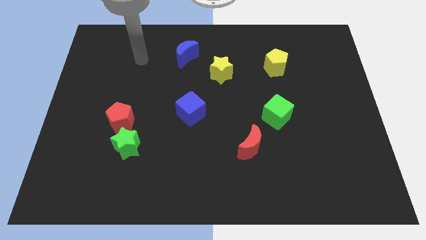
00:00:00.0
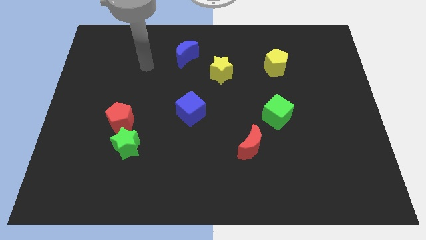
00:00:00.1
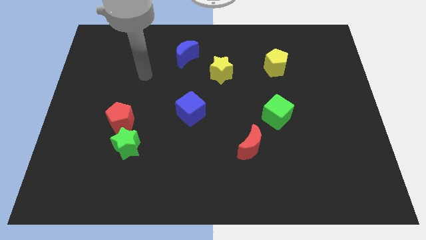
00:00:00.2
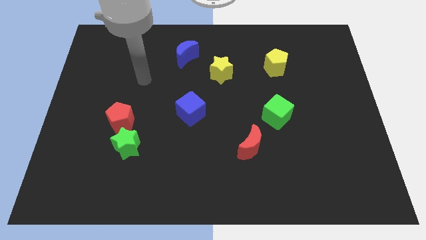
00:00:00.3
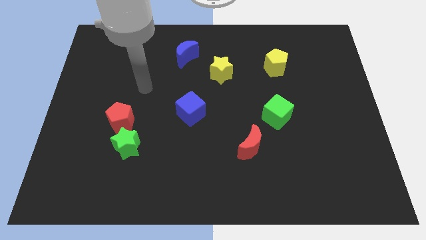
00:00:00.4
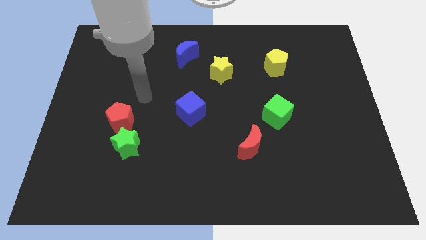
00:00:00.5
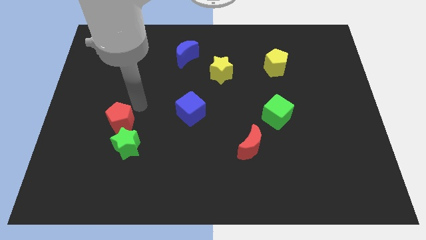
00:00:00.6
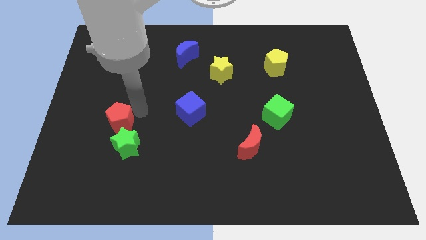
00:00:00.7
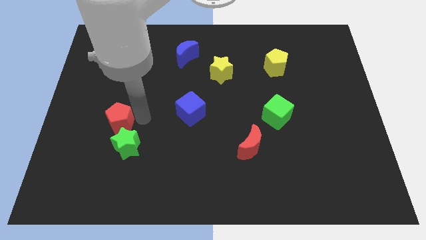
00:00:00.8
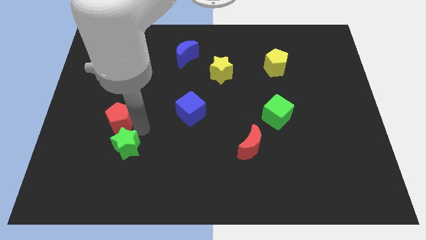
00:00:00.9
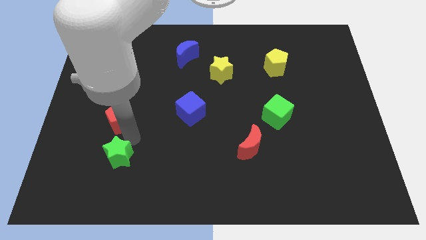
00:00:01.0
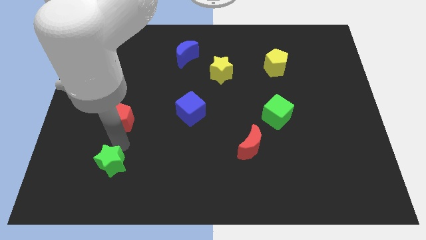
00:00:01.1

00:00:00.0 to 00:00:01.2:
move the red pentagon away from the green star

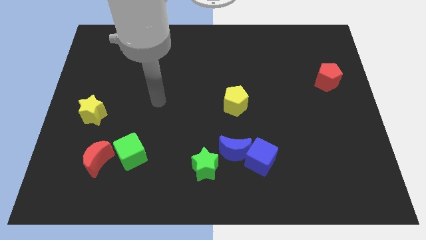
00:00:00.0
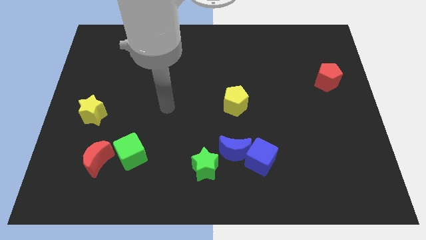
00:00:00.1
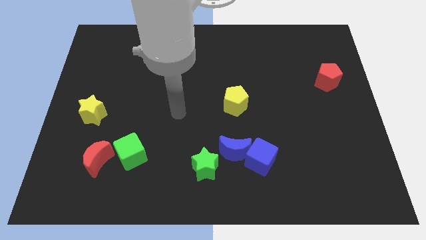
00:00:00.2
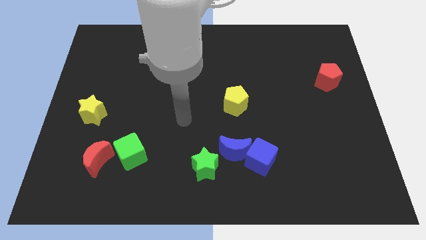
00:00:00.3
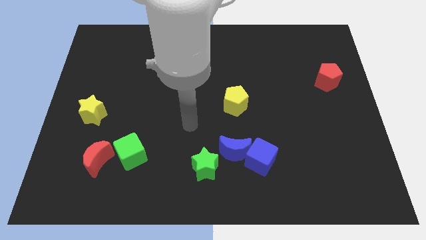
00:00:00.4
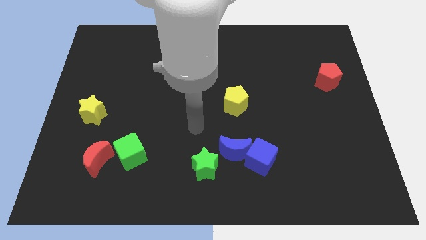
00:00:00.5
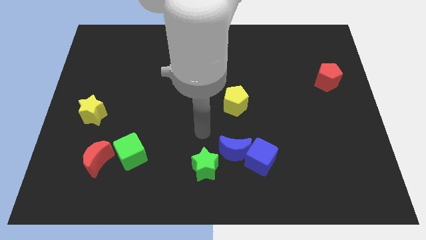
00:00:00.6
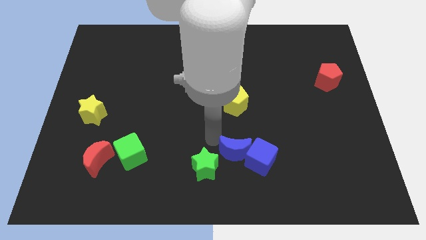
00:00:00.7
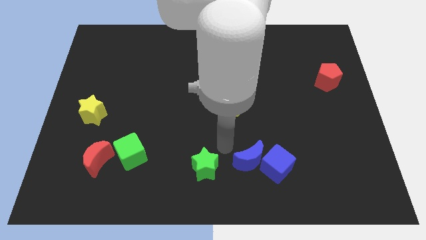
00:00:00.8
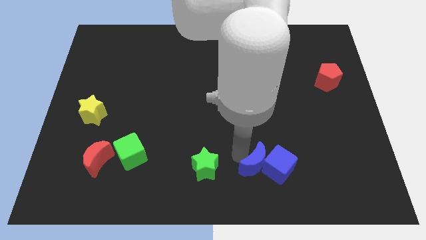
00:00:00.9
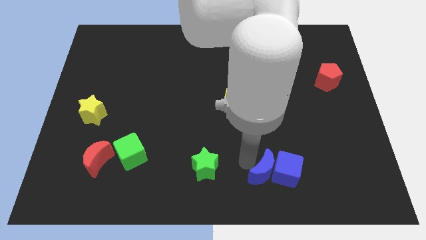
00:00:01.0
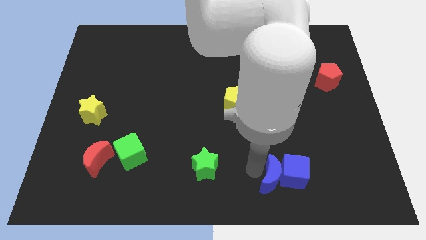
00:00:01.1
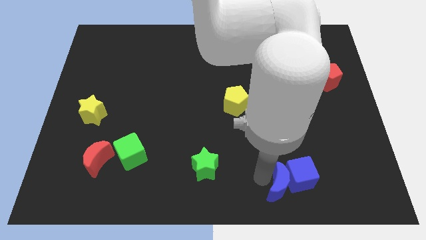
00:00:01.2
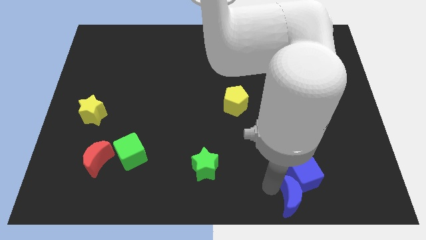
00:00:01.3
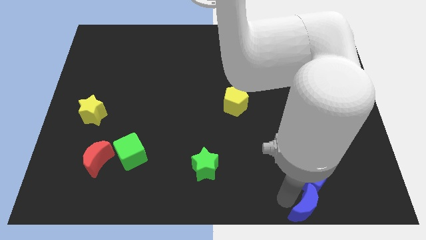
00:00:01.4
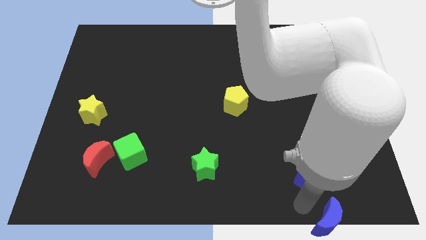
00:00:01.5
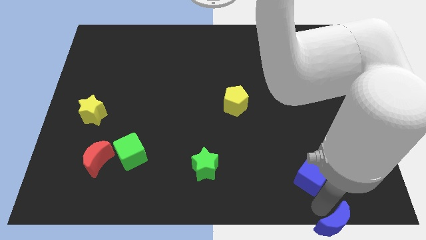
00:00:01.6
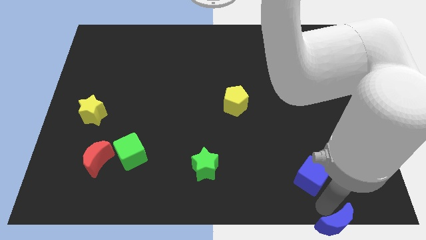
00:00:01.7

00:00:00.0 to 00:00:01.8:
move the blue cube away from the blue moon

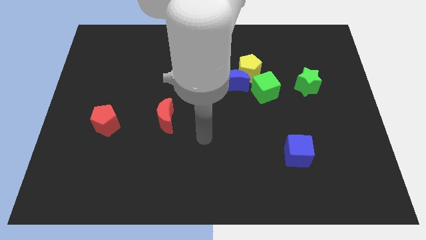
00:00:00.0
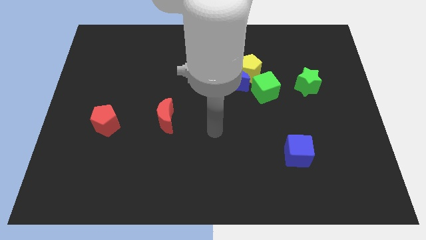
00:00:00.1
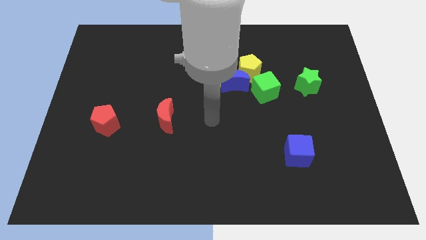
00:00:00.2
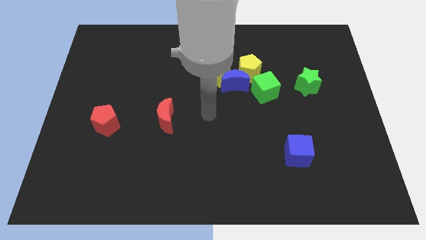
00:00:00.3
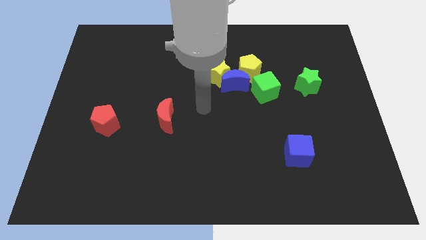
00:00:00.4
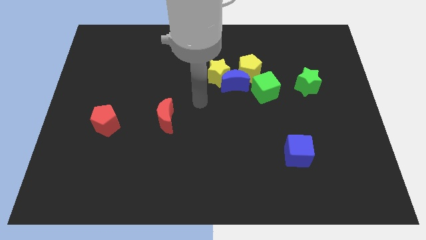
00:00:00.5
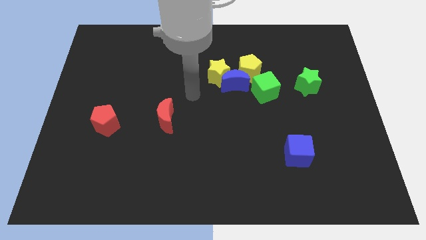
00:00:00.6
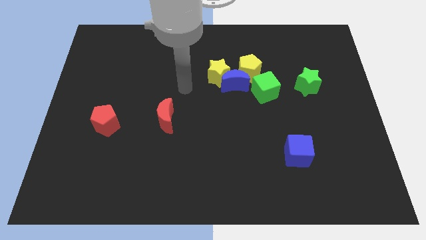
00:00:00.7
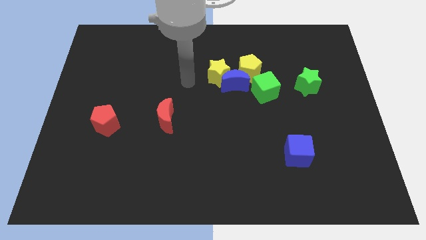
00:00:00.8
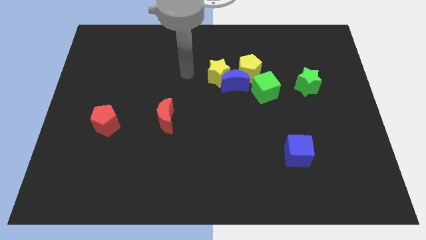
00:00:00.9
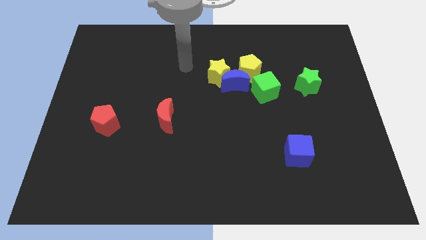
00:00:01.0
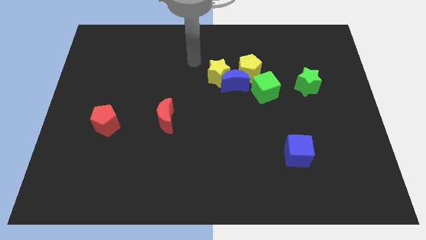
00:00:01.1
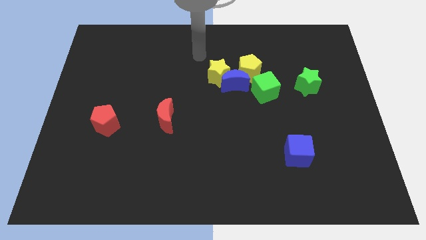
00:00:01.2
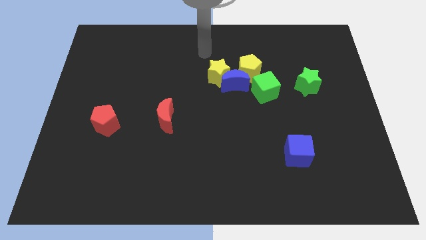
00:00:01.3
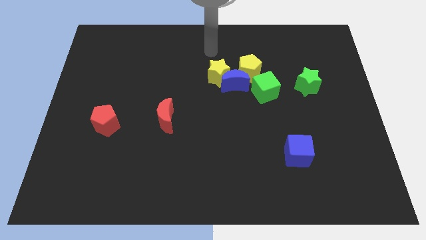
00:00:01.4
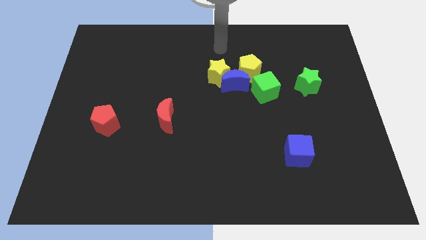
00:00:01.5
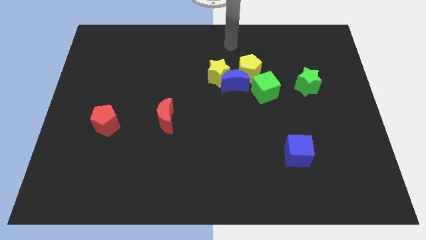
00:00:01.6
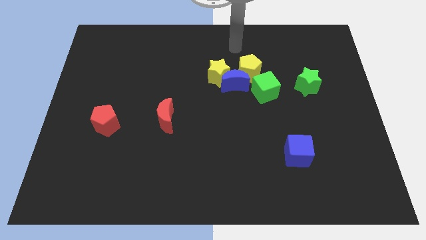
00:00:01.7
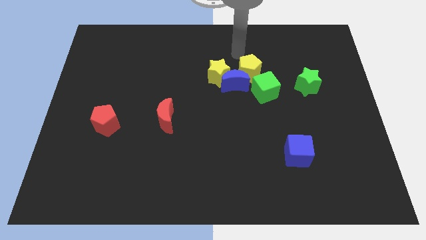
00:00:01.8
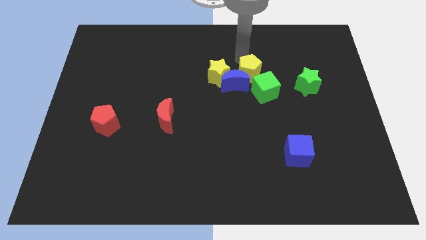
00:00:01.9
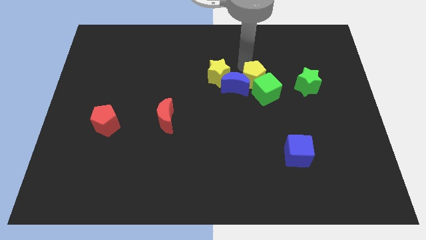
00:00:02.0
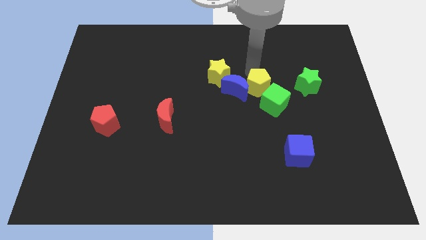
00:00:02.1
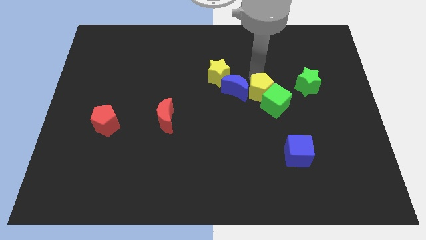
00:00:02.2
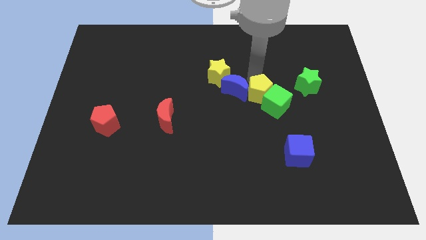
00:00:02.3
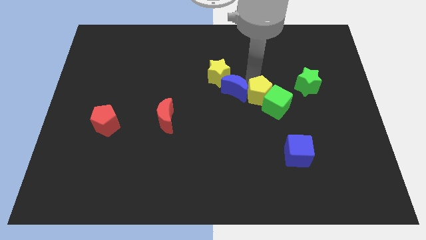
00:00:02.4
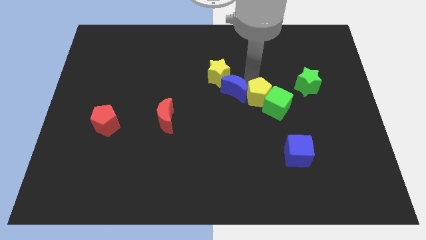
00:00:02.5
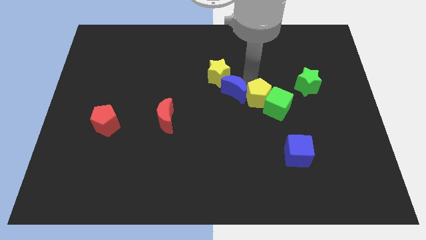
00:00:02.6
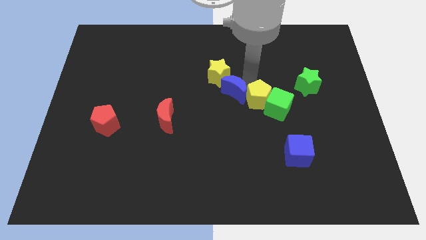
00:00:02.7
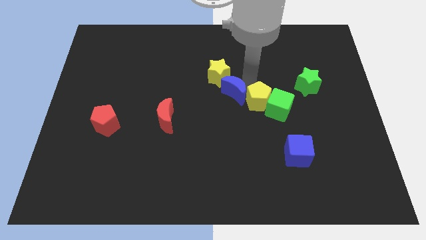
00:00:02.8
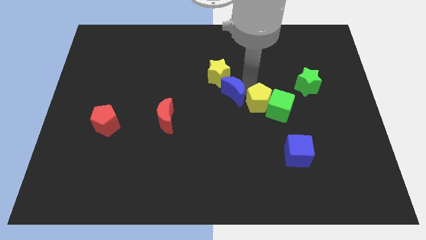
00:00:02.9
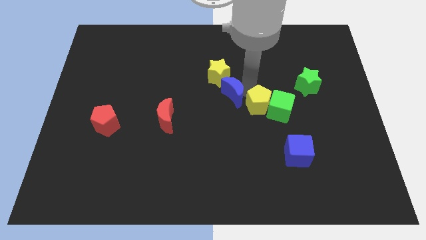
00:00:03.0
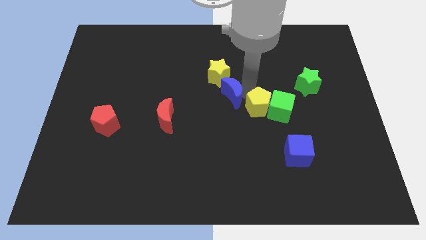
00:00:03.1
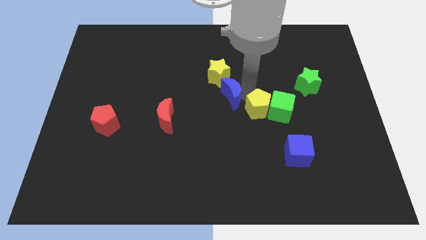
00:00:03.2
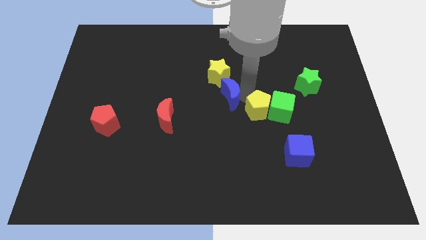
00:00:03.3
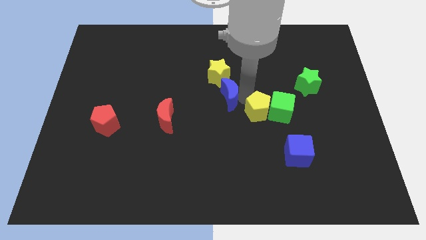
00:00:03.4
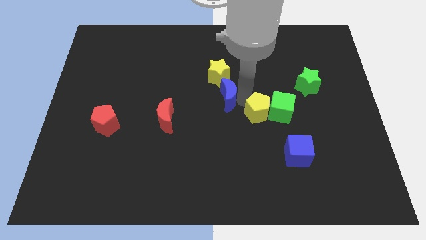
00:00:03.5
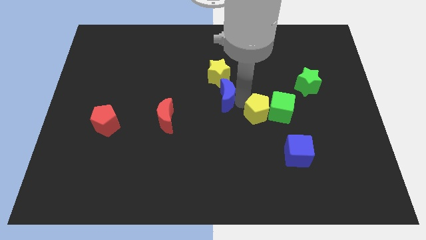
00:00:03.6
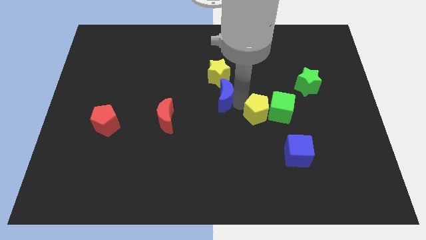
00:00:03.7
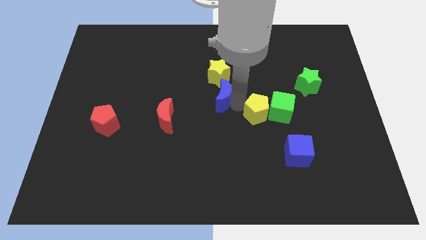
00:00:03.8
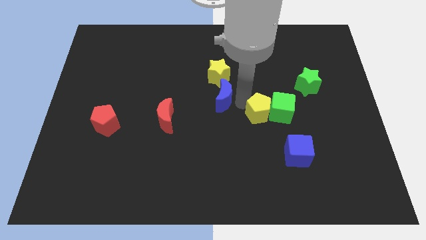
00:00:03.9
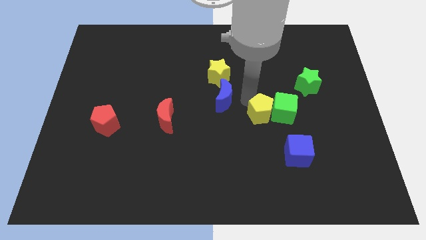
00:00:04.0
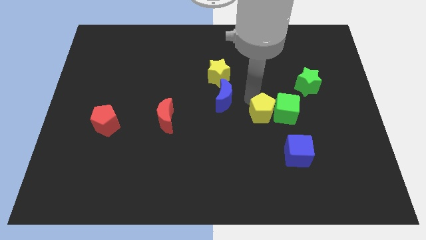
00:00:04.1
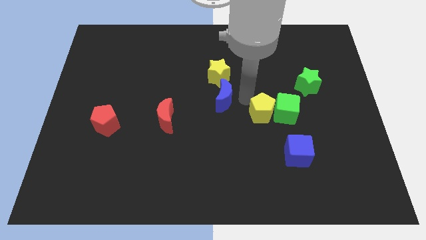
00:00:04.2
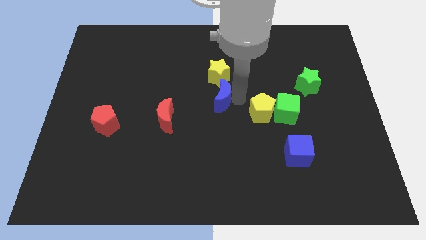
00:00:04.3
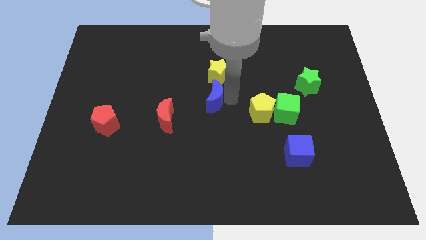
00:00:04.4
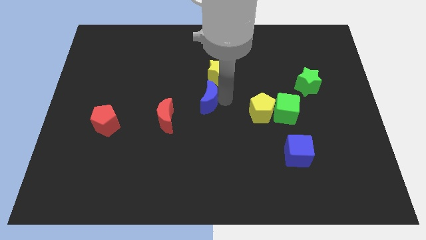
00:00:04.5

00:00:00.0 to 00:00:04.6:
pull the blue moon apart from the yellow star, yellow pentagon, and green cube

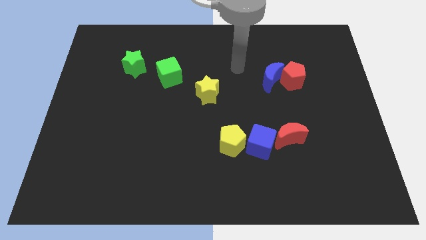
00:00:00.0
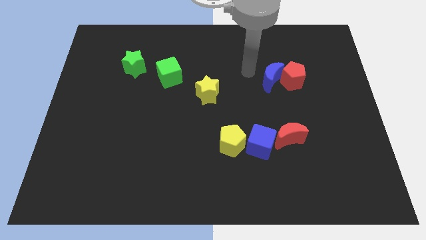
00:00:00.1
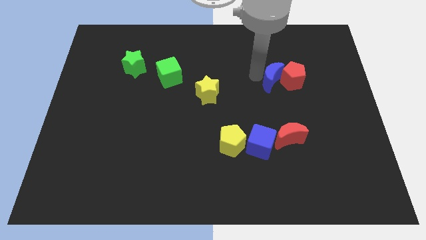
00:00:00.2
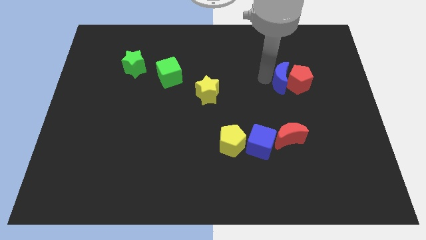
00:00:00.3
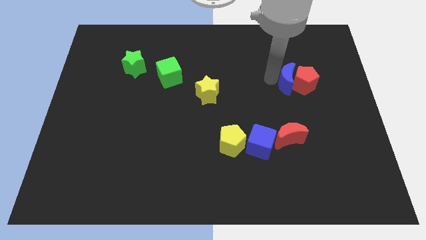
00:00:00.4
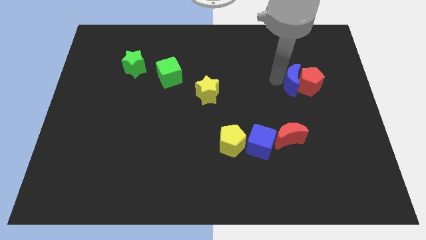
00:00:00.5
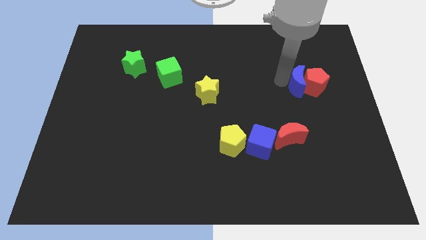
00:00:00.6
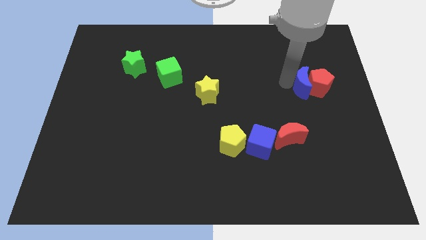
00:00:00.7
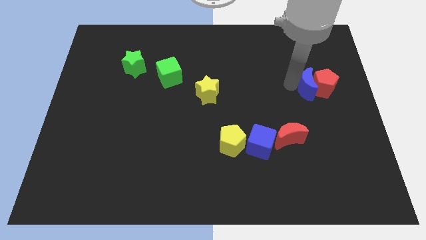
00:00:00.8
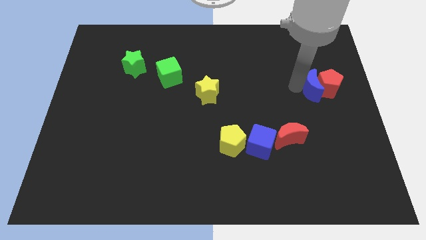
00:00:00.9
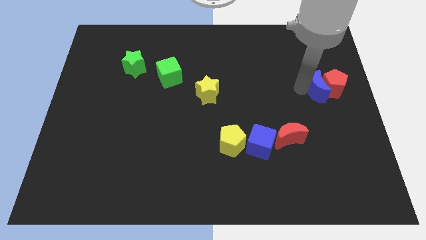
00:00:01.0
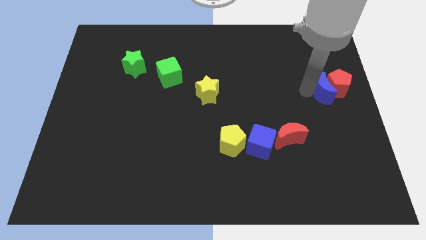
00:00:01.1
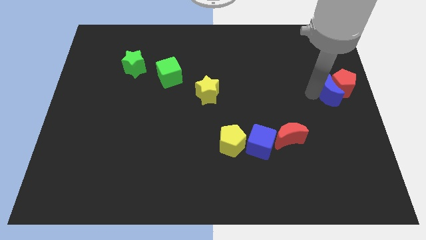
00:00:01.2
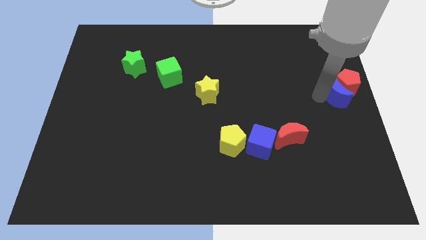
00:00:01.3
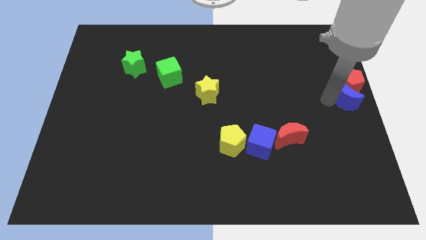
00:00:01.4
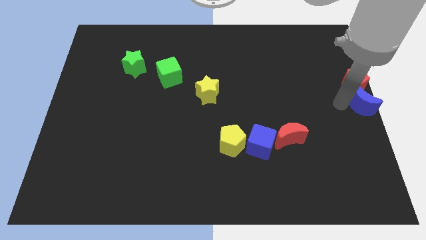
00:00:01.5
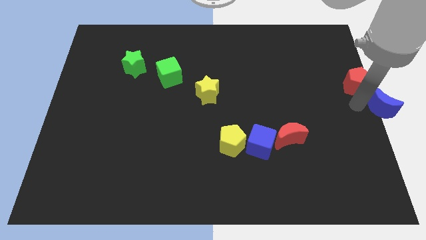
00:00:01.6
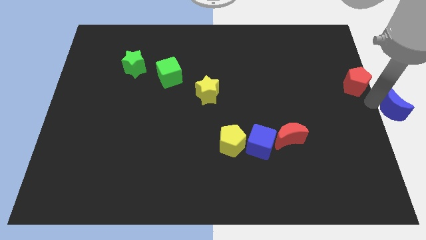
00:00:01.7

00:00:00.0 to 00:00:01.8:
separate the red pentagon from the blue moon
